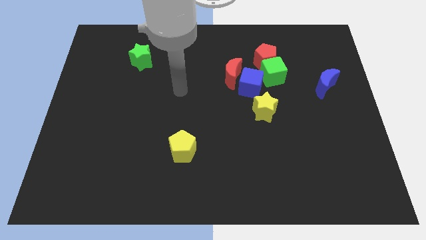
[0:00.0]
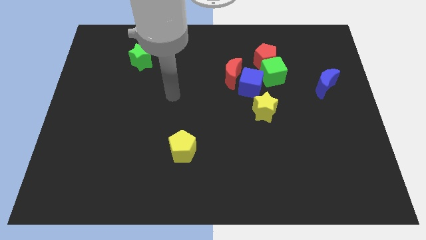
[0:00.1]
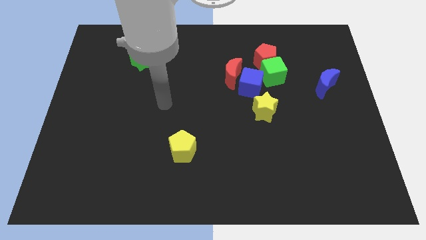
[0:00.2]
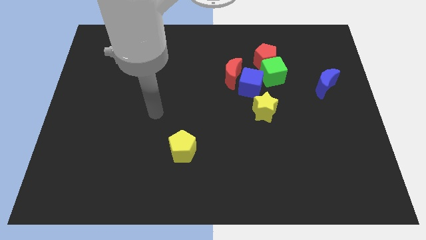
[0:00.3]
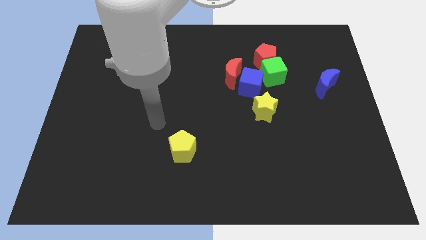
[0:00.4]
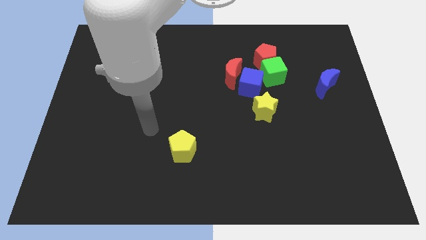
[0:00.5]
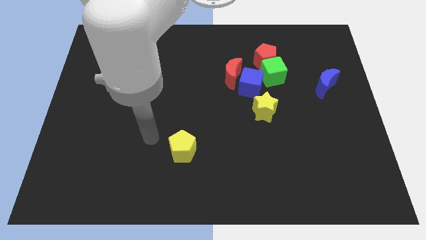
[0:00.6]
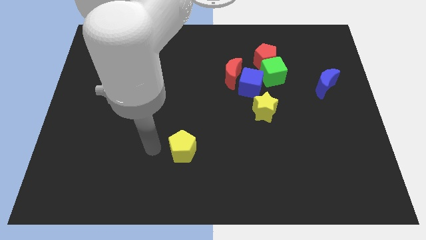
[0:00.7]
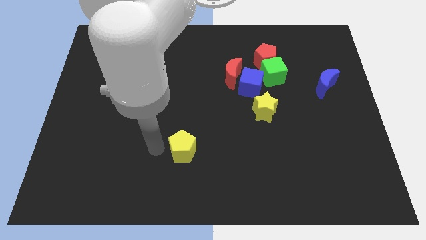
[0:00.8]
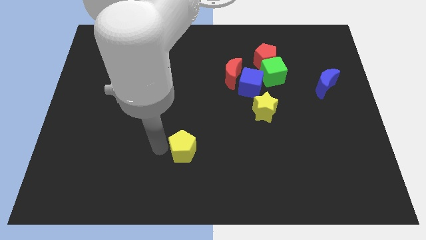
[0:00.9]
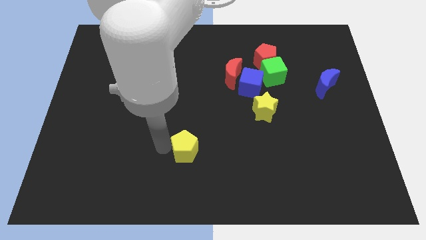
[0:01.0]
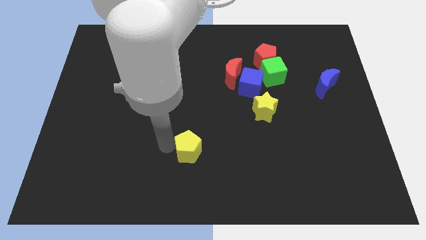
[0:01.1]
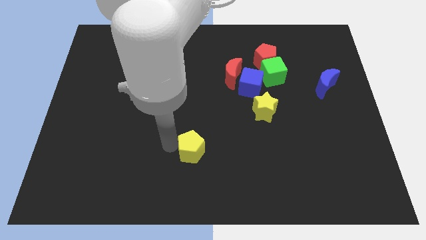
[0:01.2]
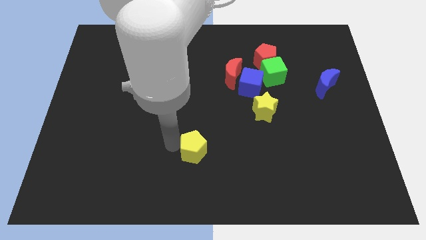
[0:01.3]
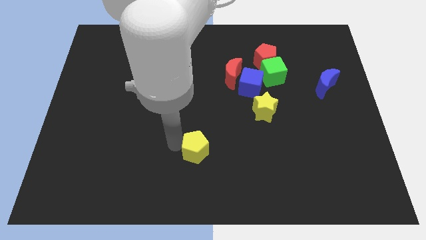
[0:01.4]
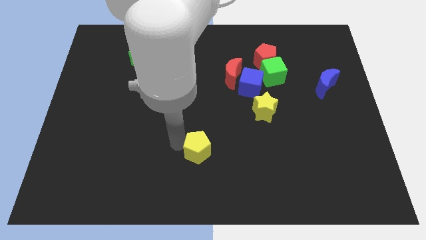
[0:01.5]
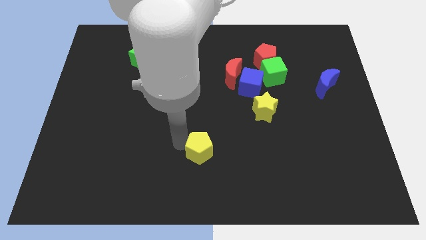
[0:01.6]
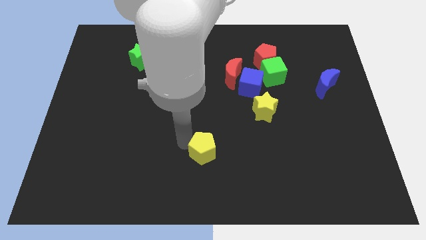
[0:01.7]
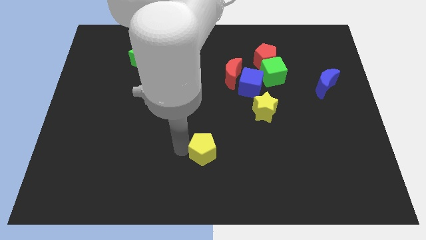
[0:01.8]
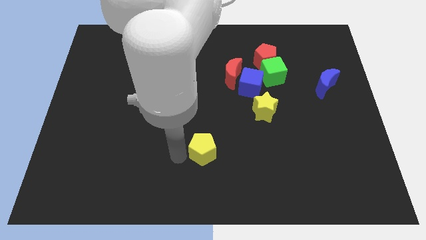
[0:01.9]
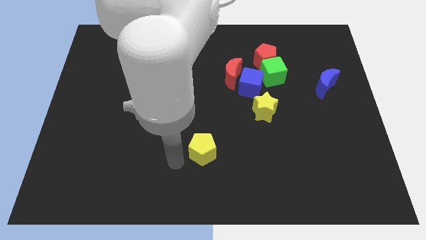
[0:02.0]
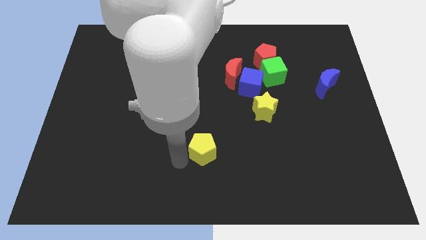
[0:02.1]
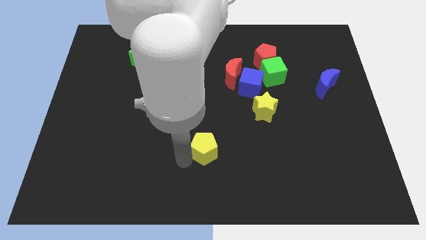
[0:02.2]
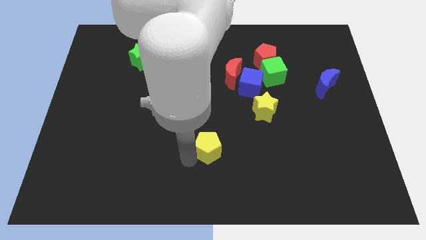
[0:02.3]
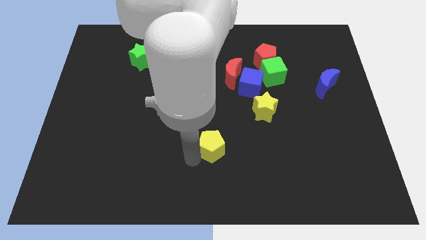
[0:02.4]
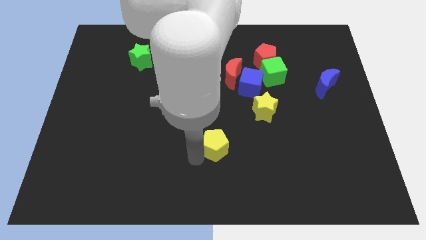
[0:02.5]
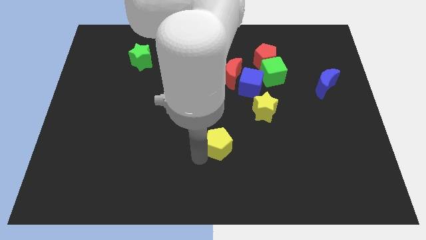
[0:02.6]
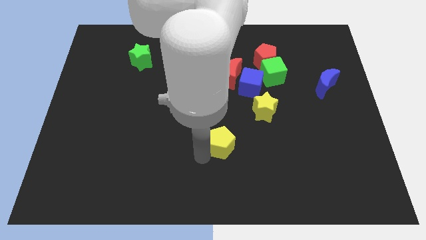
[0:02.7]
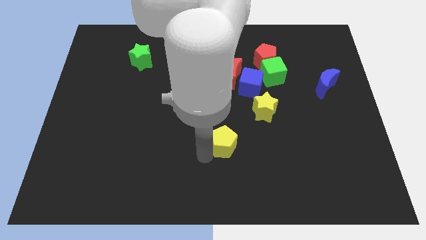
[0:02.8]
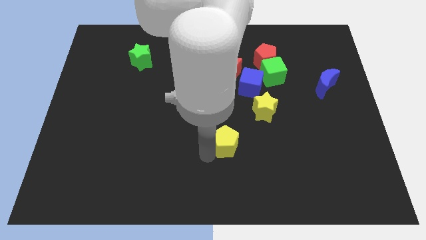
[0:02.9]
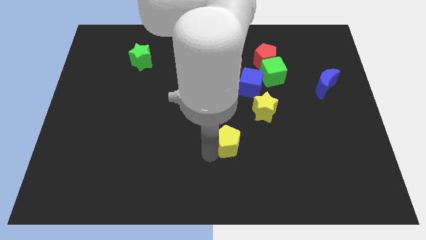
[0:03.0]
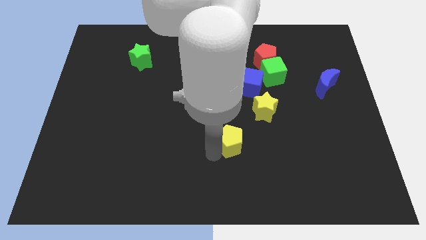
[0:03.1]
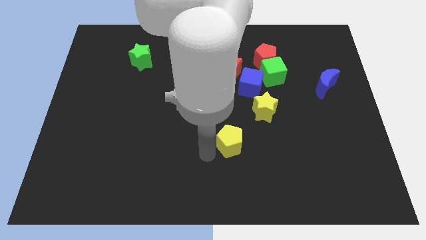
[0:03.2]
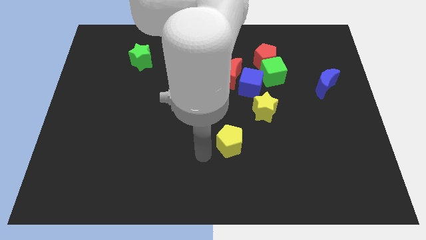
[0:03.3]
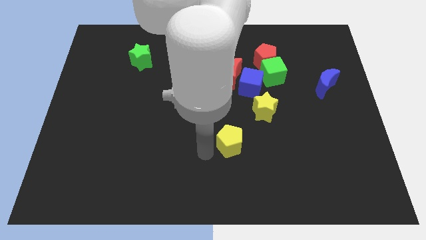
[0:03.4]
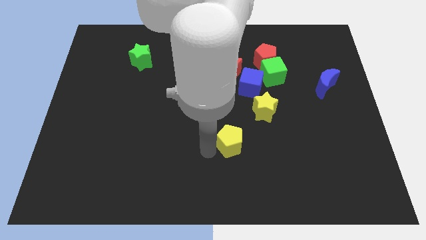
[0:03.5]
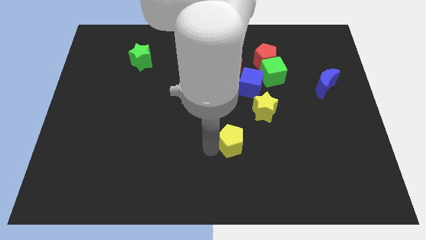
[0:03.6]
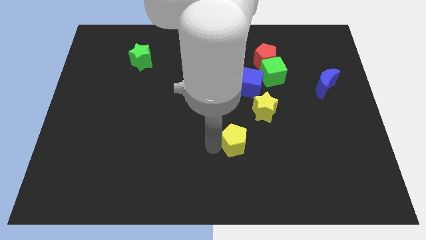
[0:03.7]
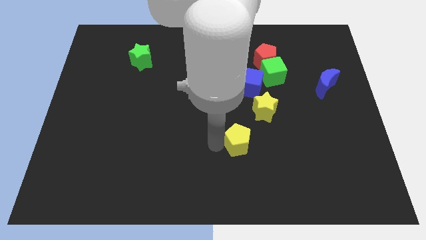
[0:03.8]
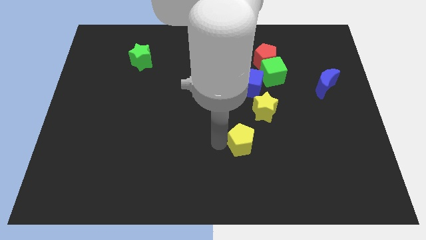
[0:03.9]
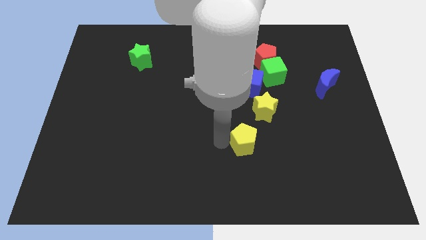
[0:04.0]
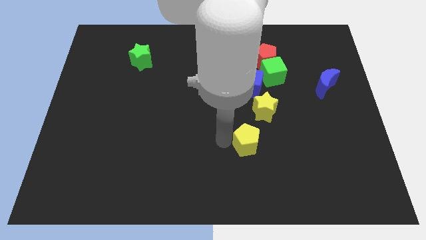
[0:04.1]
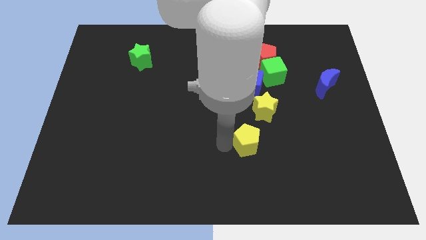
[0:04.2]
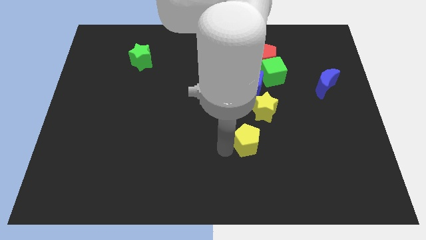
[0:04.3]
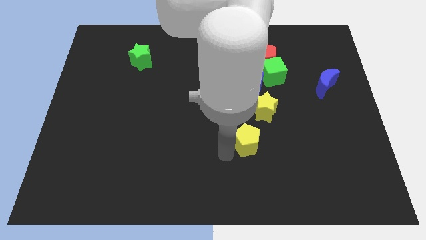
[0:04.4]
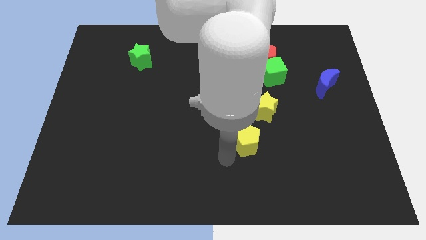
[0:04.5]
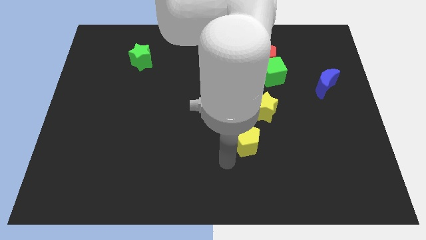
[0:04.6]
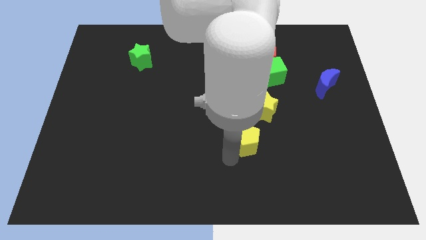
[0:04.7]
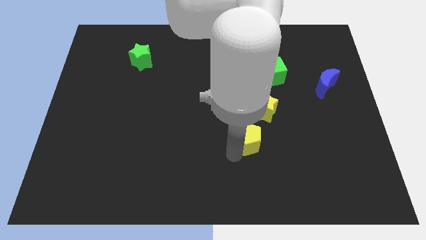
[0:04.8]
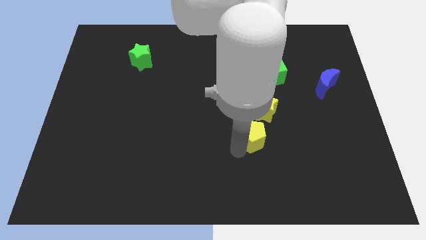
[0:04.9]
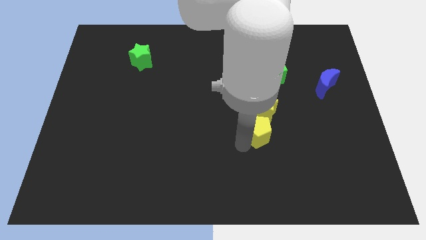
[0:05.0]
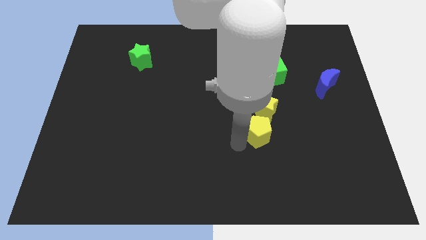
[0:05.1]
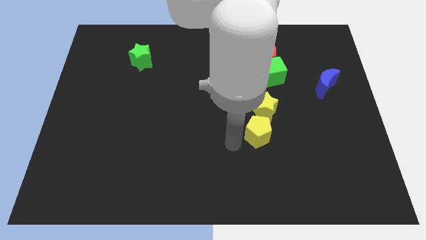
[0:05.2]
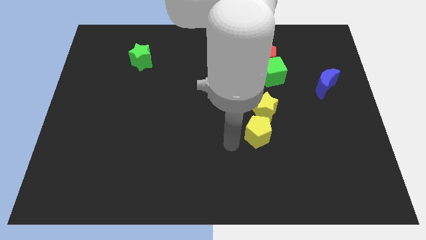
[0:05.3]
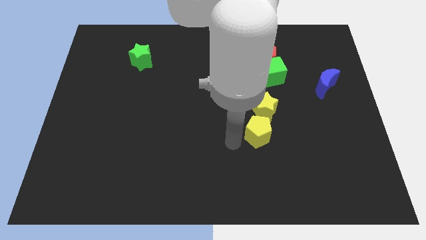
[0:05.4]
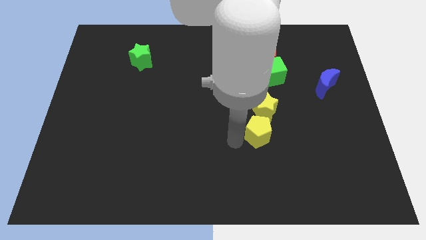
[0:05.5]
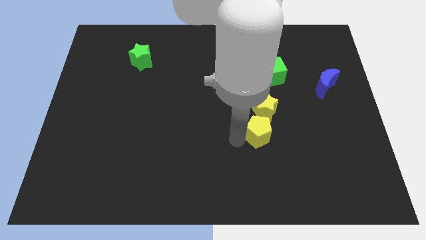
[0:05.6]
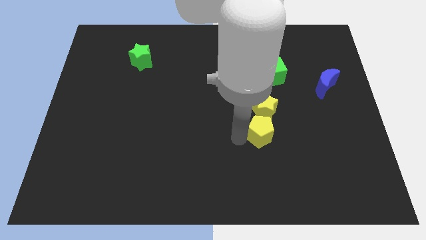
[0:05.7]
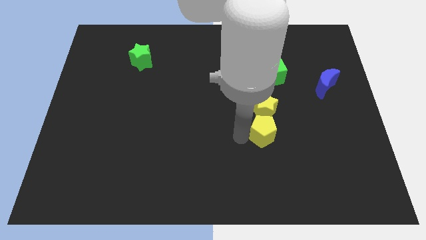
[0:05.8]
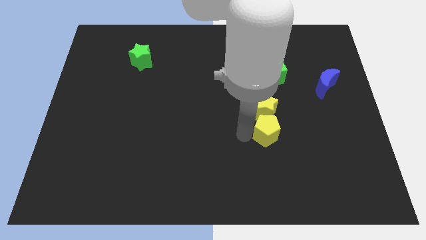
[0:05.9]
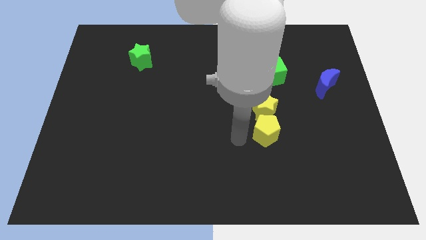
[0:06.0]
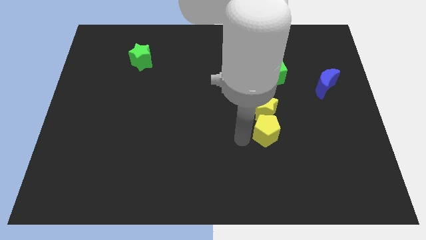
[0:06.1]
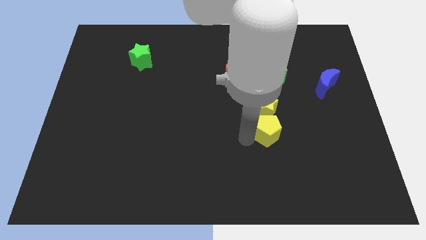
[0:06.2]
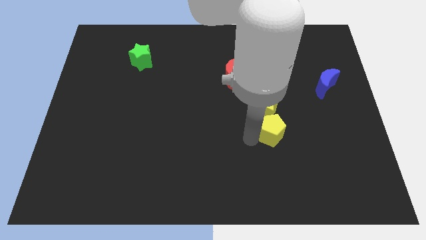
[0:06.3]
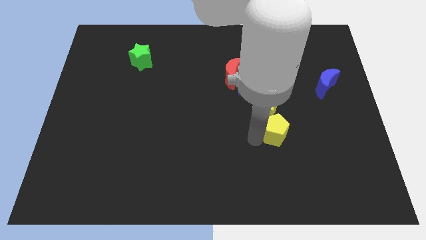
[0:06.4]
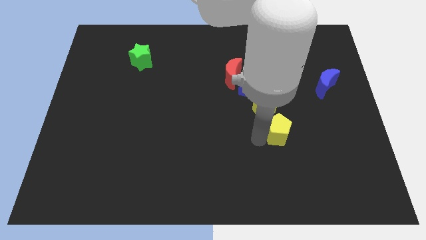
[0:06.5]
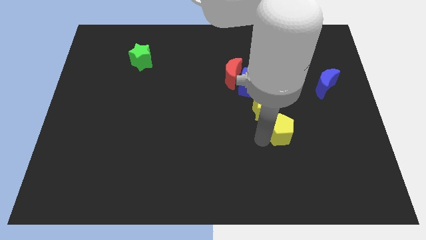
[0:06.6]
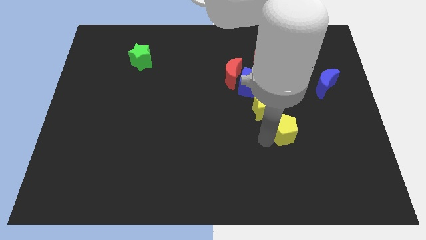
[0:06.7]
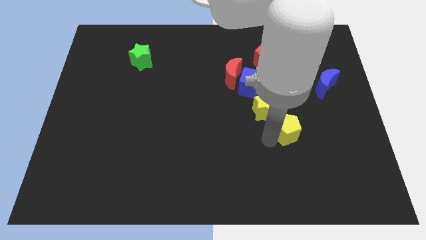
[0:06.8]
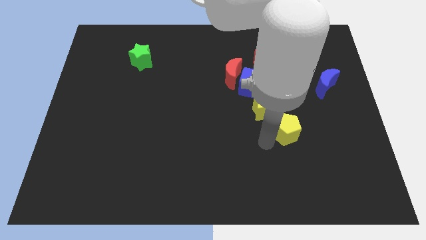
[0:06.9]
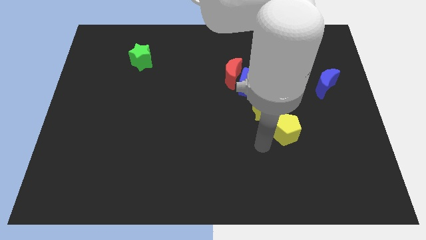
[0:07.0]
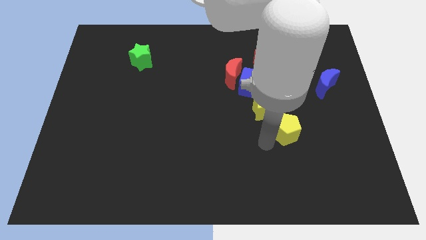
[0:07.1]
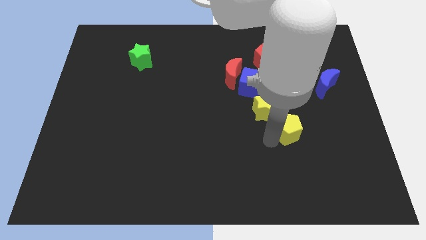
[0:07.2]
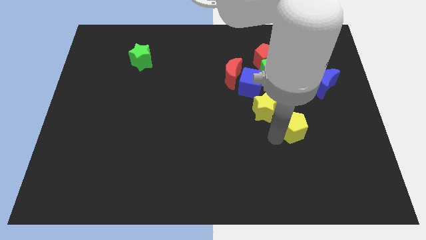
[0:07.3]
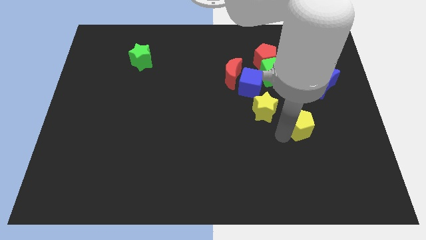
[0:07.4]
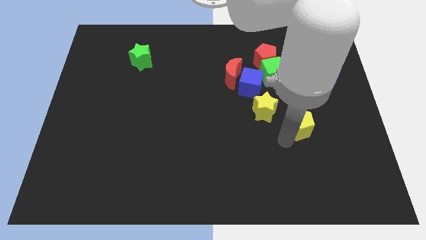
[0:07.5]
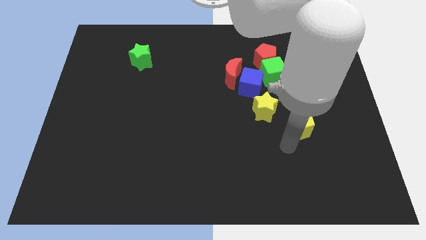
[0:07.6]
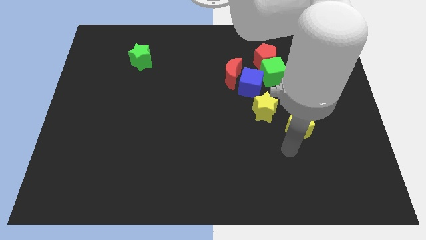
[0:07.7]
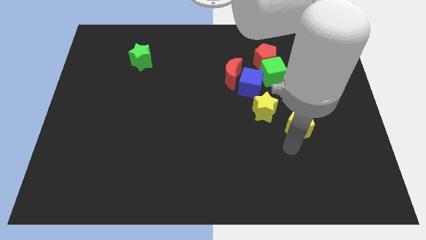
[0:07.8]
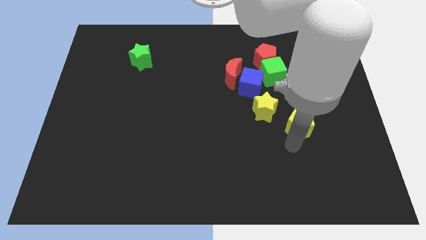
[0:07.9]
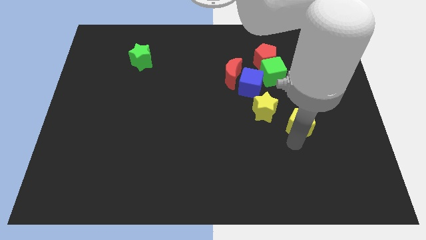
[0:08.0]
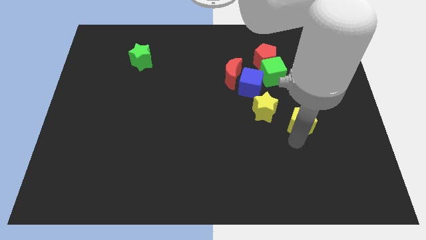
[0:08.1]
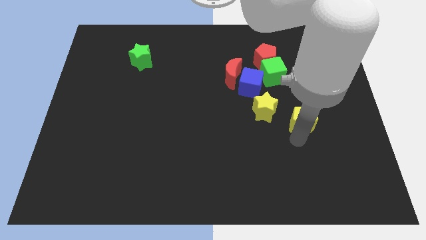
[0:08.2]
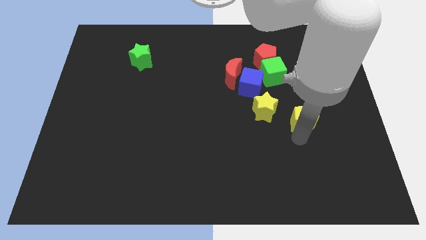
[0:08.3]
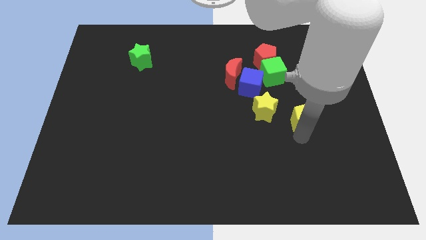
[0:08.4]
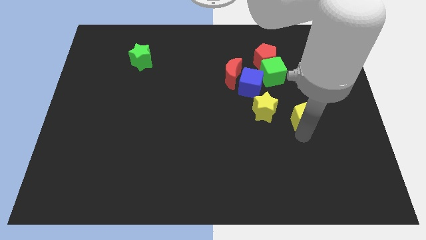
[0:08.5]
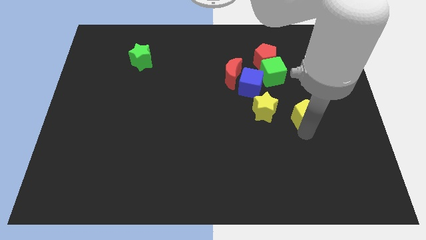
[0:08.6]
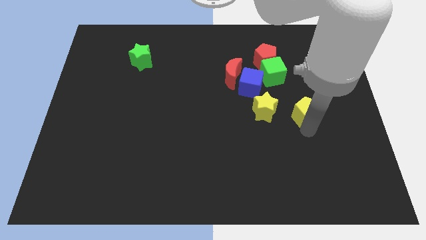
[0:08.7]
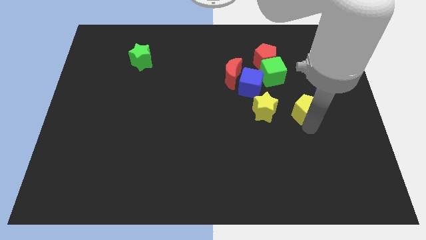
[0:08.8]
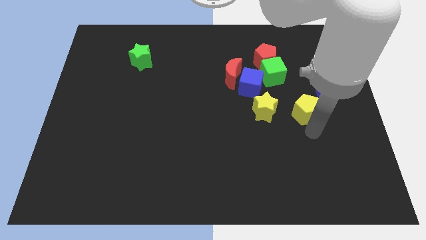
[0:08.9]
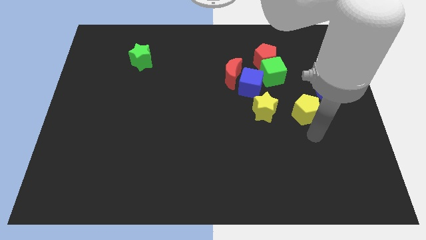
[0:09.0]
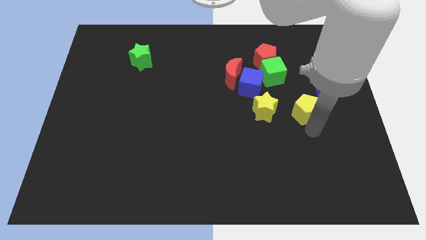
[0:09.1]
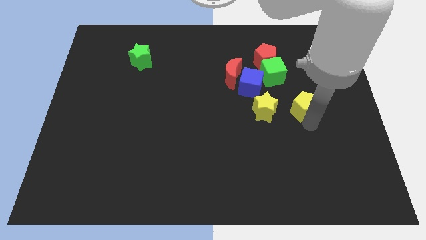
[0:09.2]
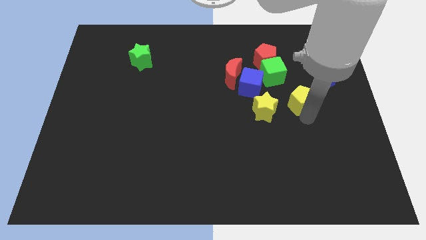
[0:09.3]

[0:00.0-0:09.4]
move the yellow pentagon to the bottom right of the green cube
